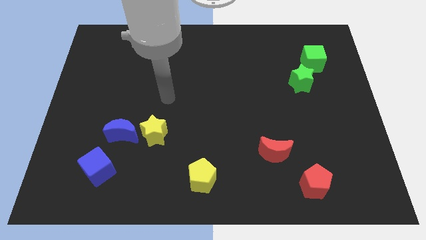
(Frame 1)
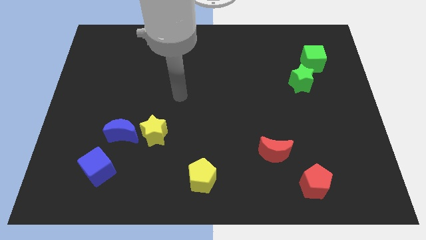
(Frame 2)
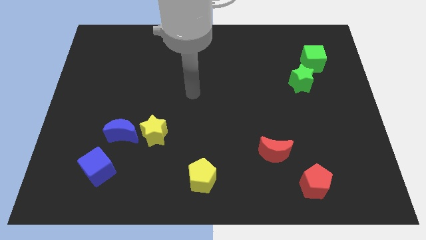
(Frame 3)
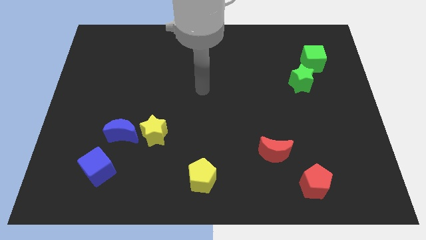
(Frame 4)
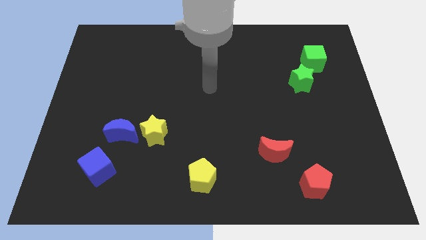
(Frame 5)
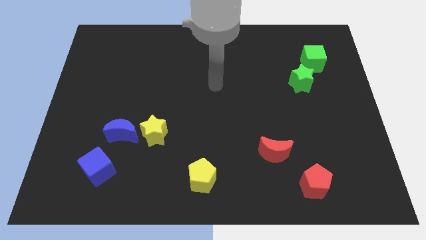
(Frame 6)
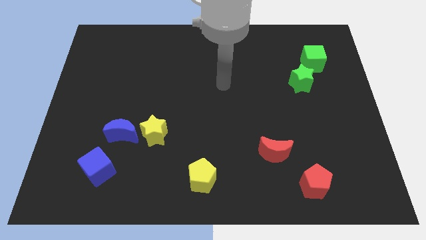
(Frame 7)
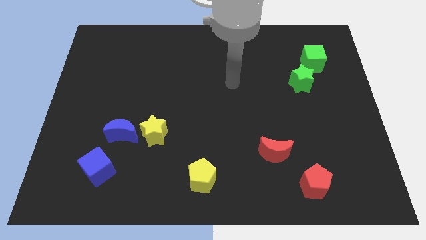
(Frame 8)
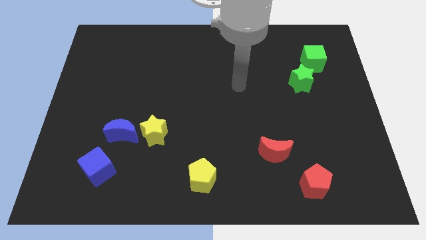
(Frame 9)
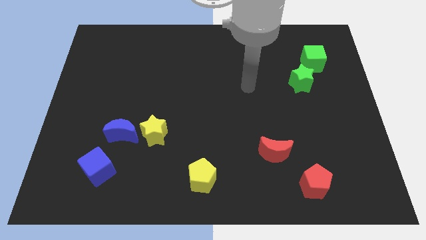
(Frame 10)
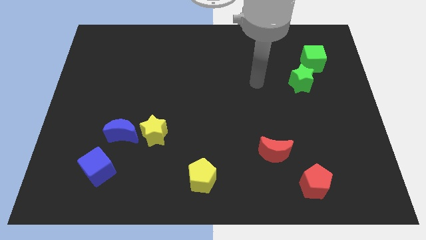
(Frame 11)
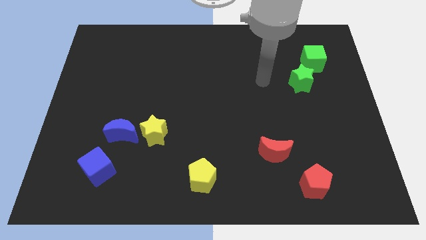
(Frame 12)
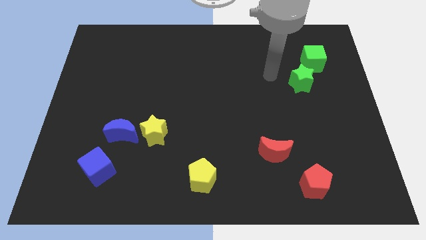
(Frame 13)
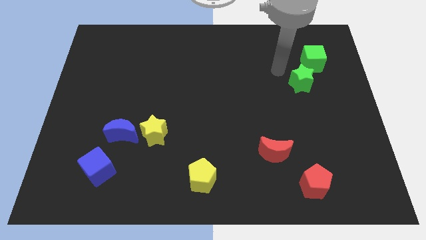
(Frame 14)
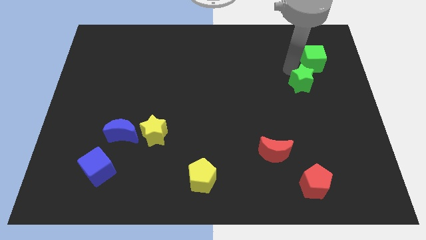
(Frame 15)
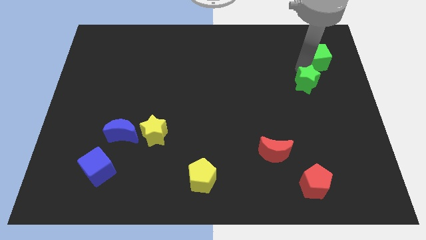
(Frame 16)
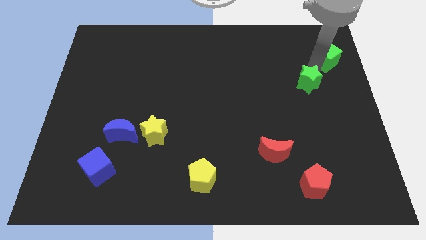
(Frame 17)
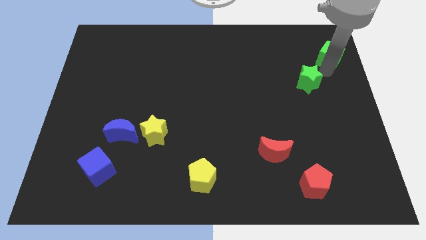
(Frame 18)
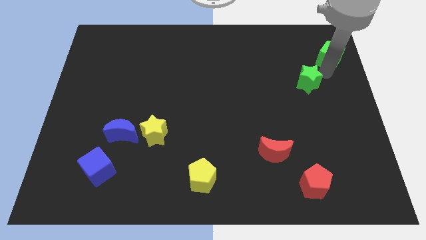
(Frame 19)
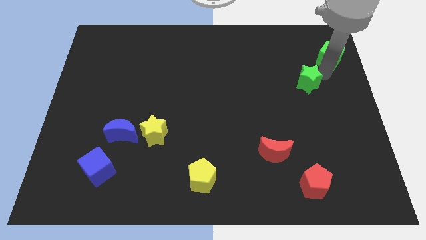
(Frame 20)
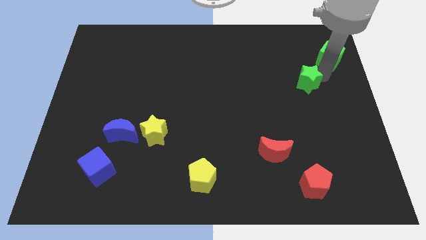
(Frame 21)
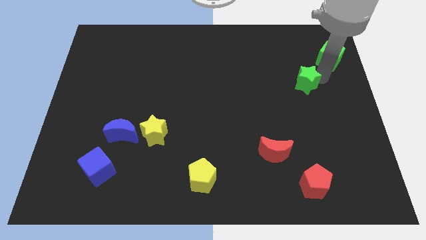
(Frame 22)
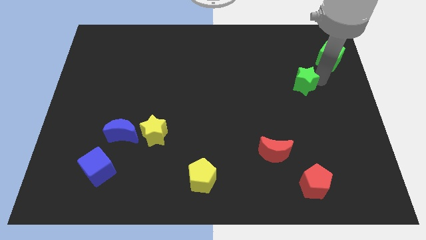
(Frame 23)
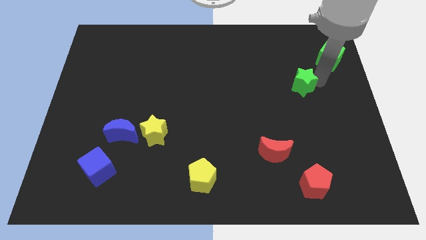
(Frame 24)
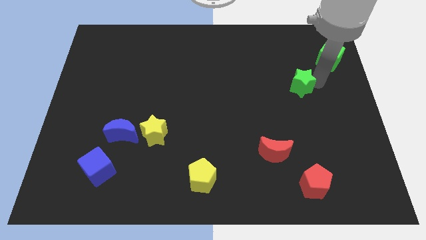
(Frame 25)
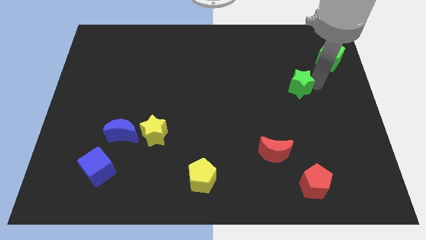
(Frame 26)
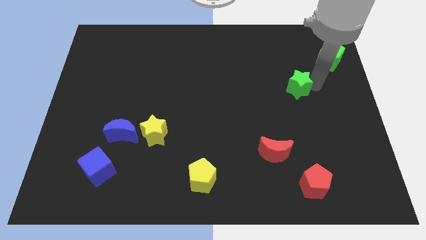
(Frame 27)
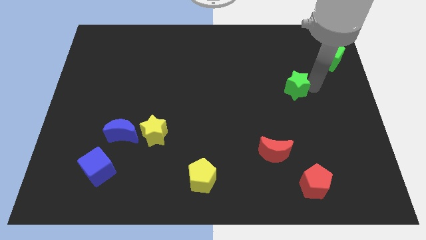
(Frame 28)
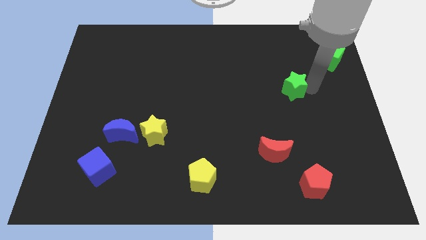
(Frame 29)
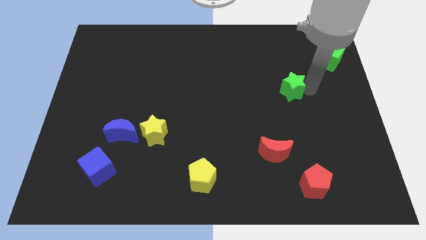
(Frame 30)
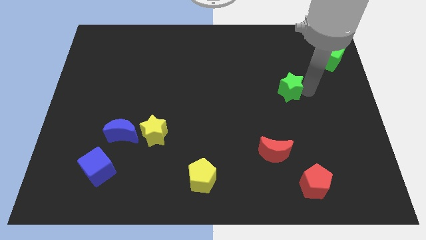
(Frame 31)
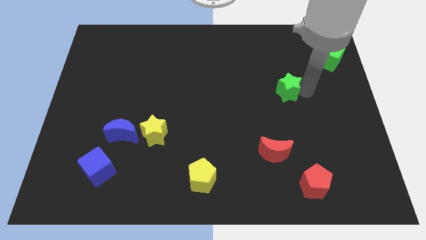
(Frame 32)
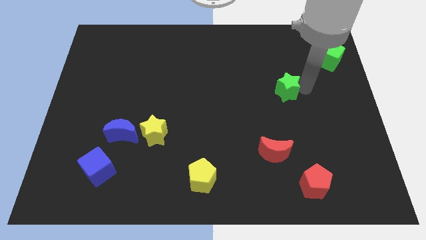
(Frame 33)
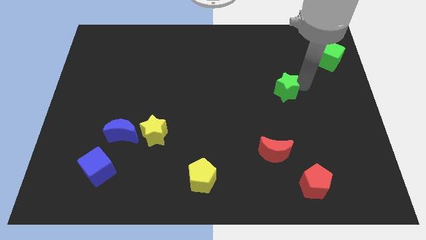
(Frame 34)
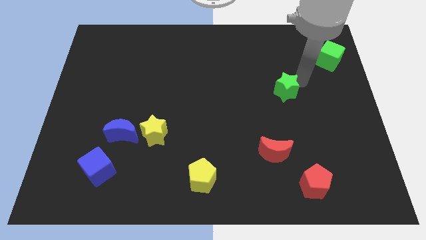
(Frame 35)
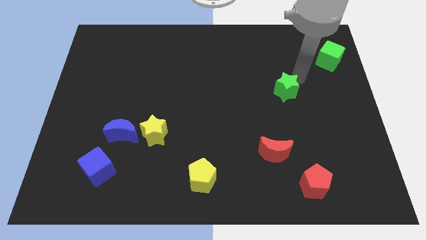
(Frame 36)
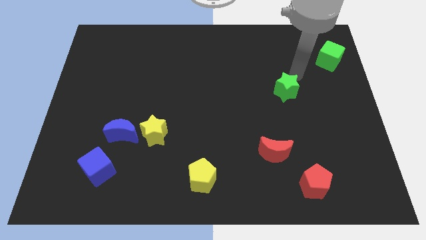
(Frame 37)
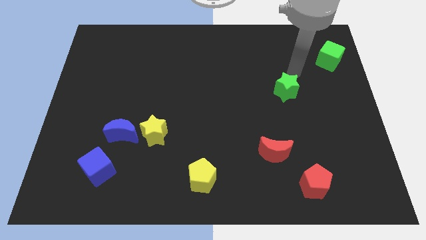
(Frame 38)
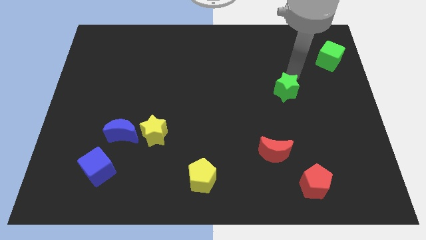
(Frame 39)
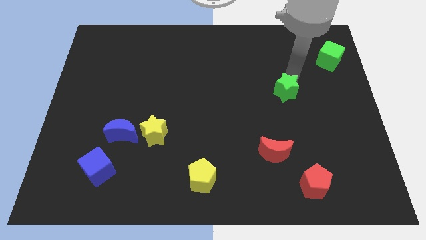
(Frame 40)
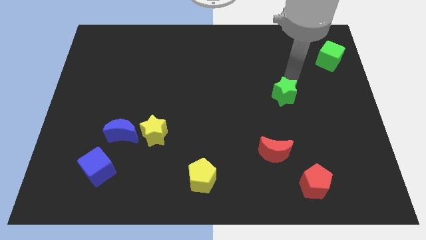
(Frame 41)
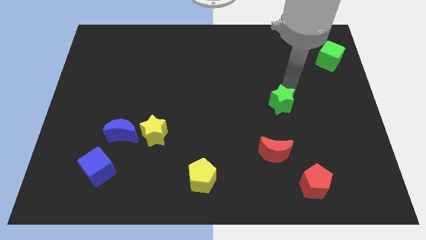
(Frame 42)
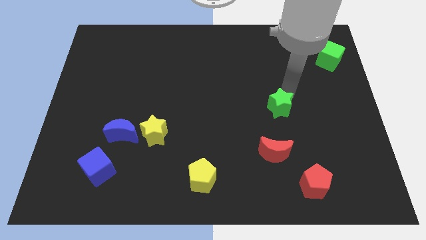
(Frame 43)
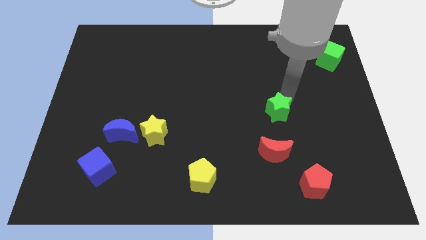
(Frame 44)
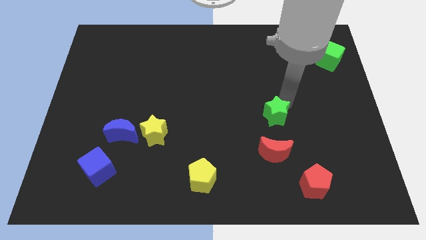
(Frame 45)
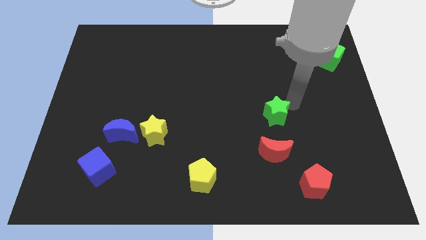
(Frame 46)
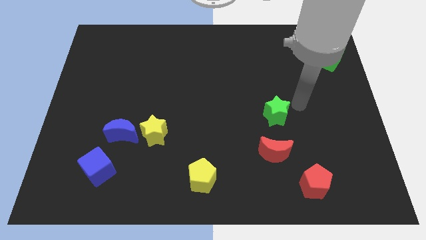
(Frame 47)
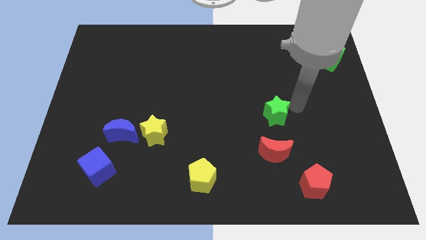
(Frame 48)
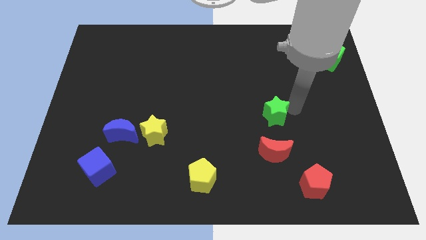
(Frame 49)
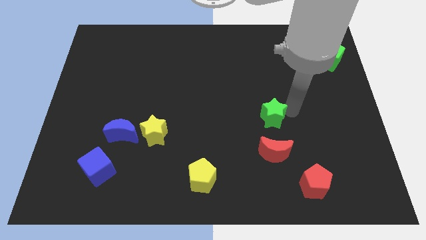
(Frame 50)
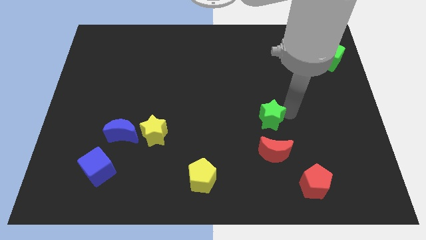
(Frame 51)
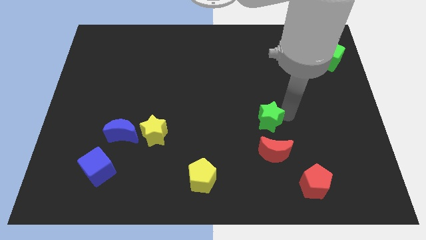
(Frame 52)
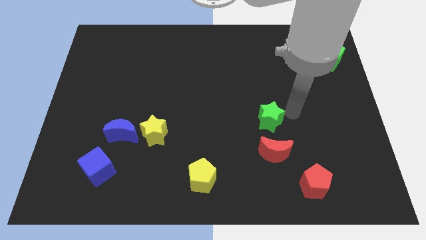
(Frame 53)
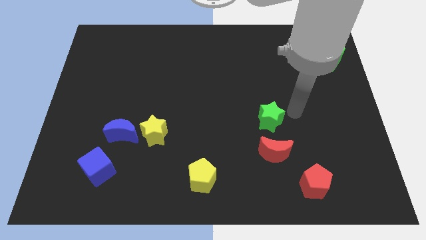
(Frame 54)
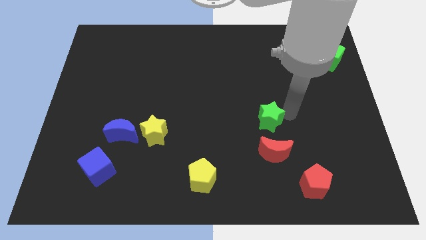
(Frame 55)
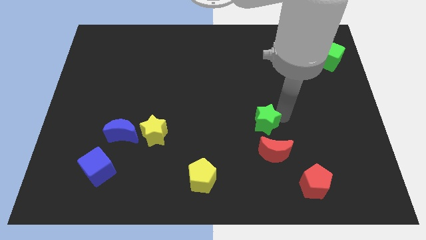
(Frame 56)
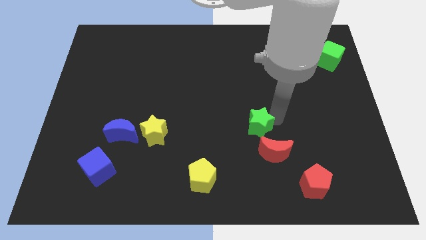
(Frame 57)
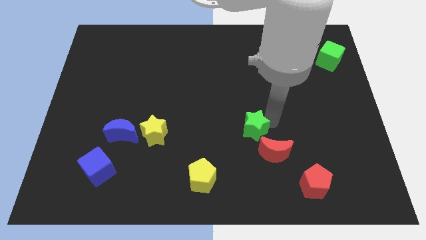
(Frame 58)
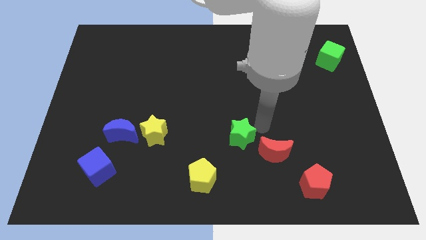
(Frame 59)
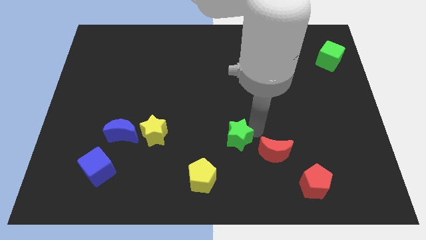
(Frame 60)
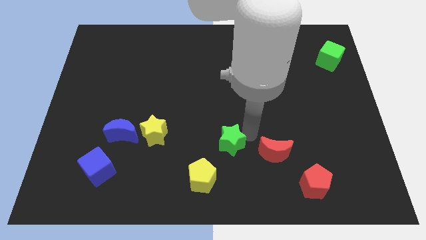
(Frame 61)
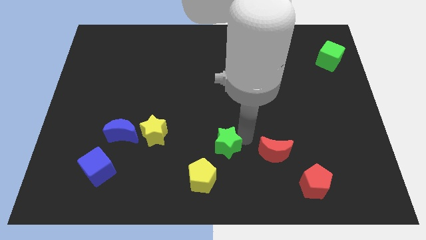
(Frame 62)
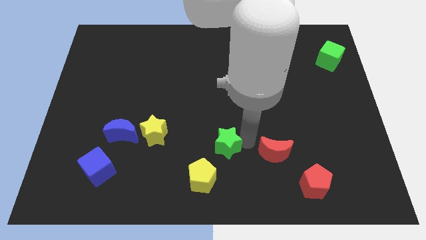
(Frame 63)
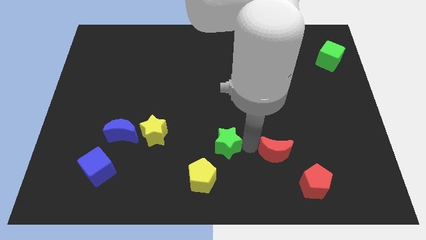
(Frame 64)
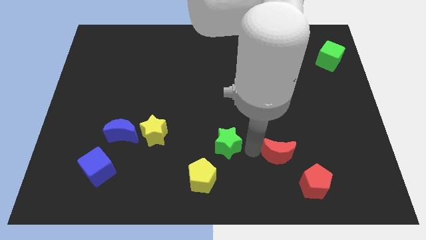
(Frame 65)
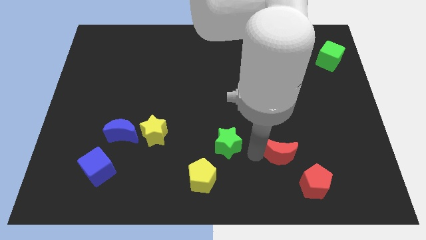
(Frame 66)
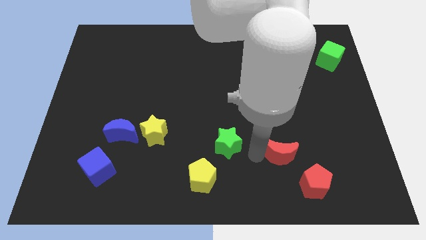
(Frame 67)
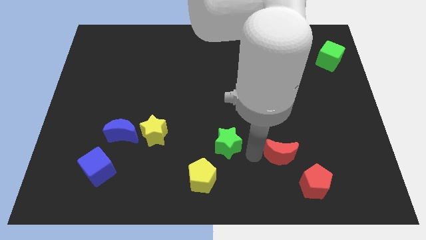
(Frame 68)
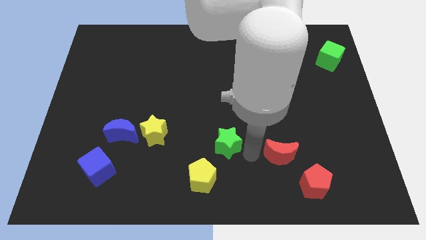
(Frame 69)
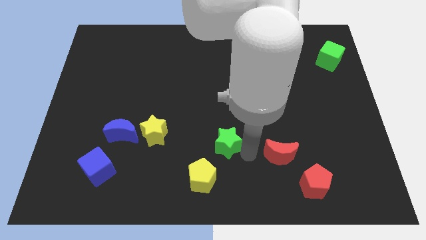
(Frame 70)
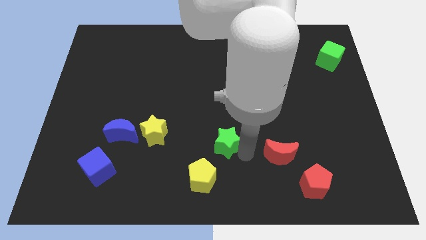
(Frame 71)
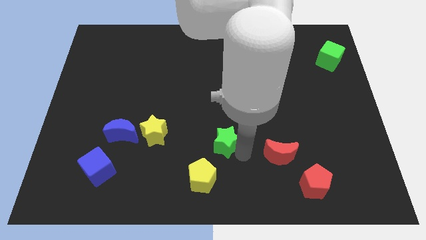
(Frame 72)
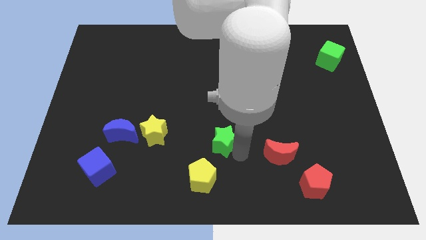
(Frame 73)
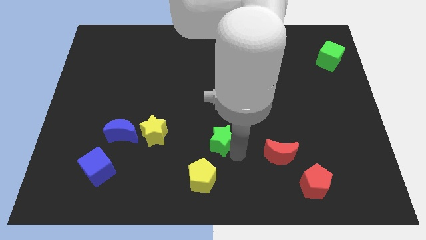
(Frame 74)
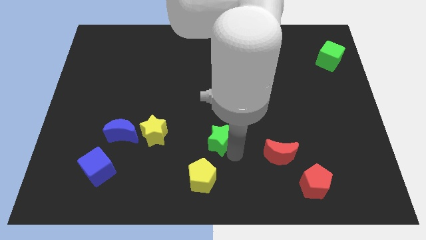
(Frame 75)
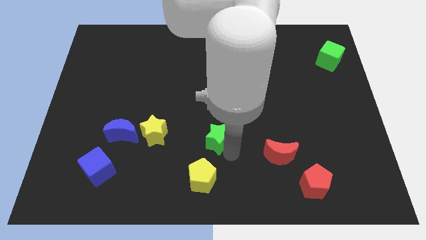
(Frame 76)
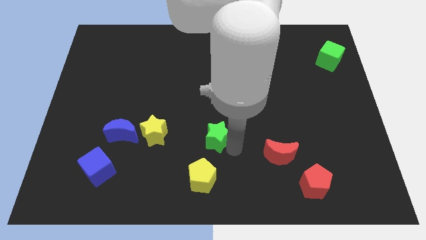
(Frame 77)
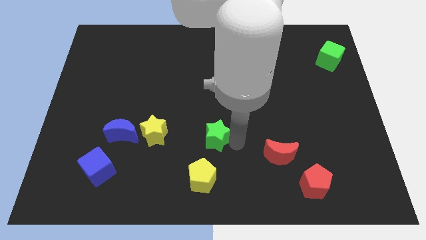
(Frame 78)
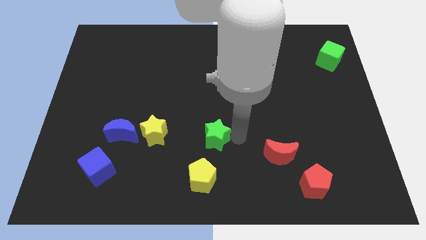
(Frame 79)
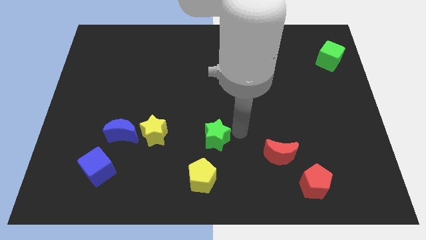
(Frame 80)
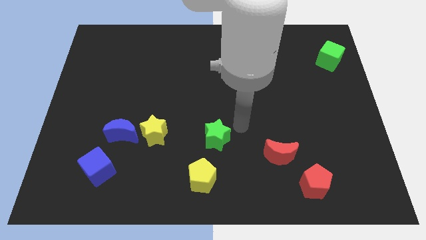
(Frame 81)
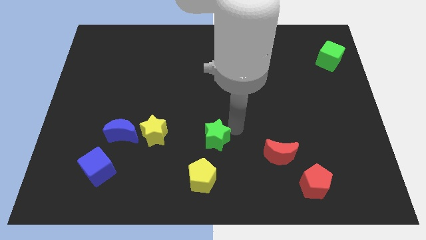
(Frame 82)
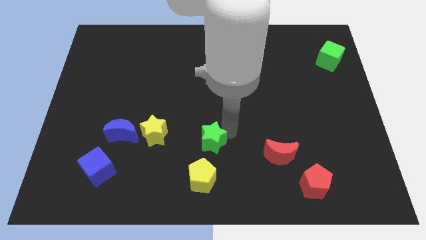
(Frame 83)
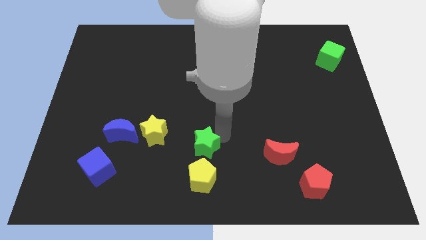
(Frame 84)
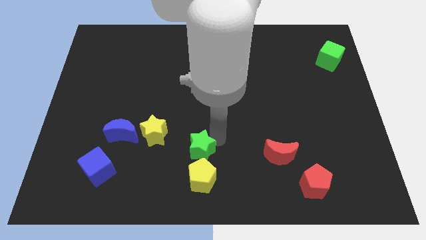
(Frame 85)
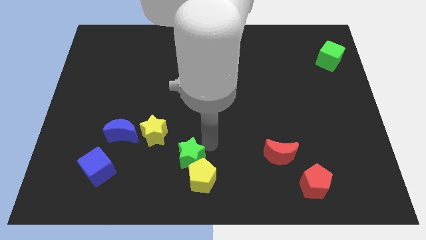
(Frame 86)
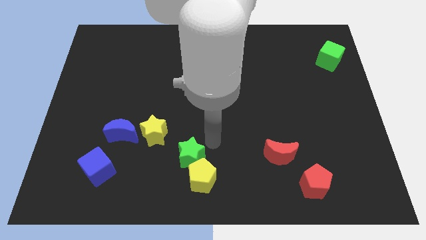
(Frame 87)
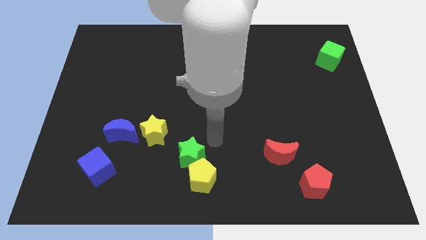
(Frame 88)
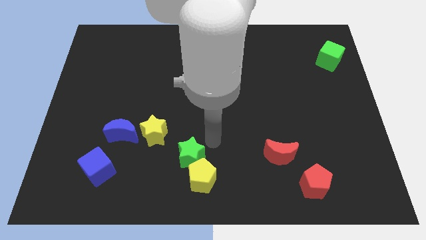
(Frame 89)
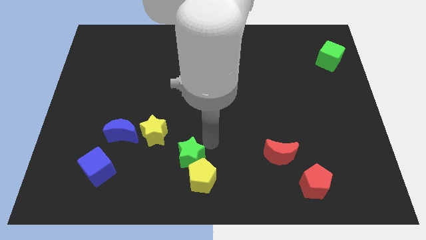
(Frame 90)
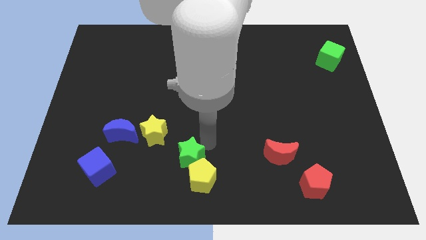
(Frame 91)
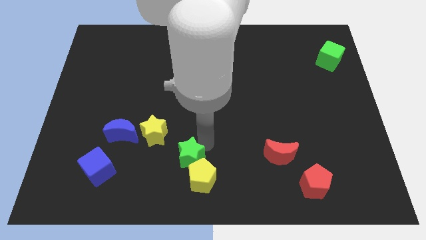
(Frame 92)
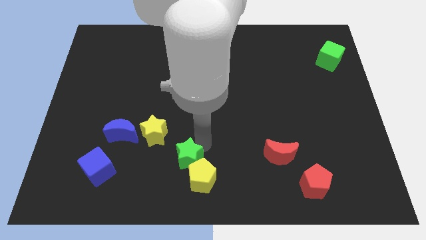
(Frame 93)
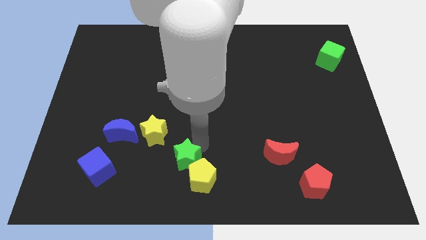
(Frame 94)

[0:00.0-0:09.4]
put the green star to the left of the yellow pentagon
